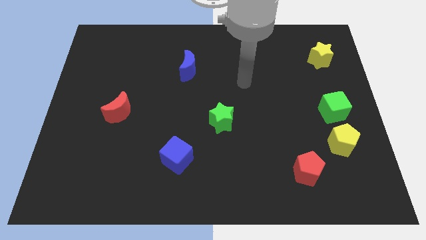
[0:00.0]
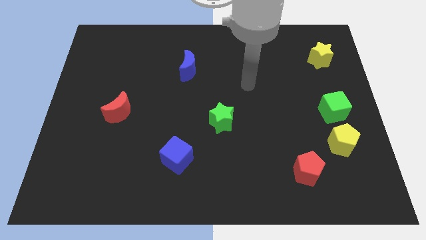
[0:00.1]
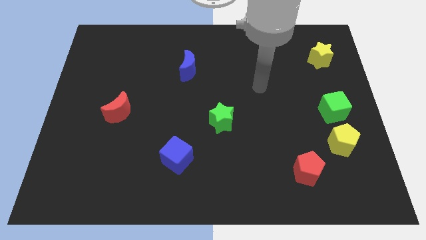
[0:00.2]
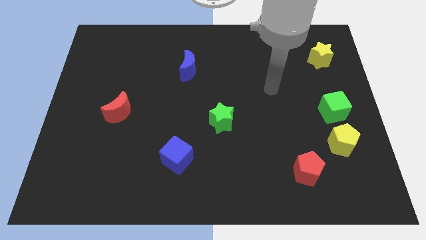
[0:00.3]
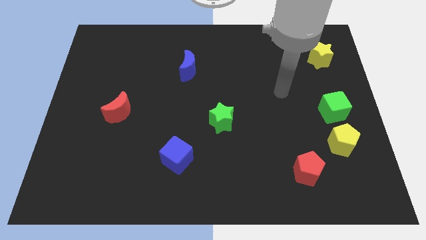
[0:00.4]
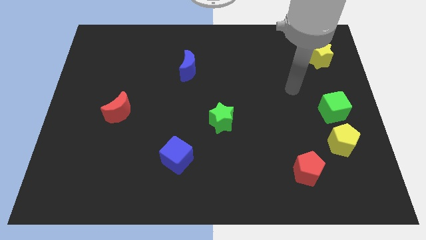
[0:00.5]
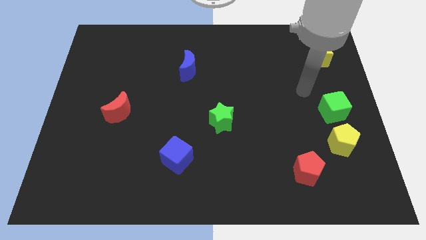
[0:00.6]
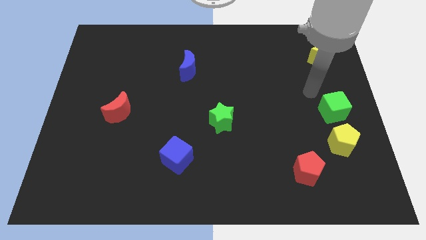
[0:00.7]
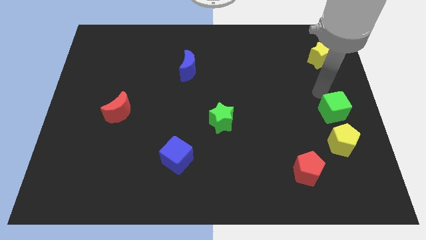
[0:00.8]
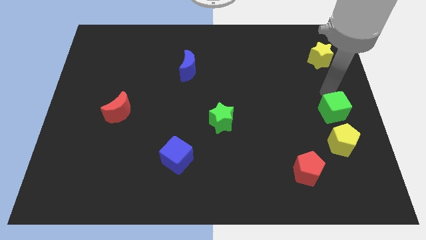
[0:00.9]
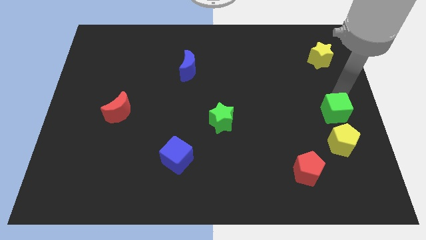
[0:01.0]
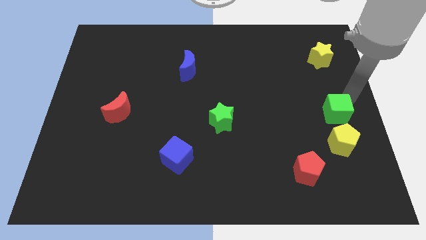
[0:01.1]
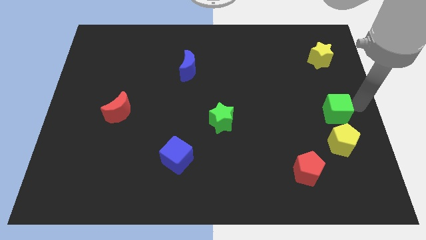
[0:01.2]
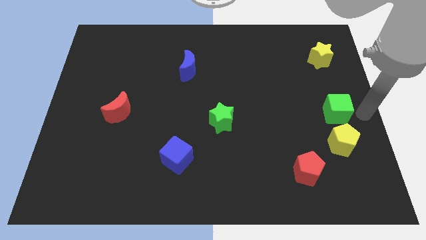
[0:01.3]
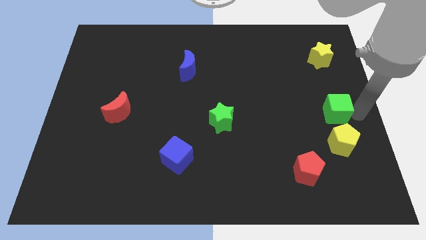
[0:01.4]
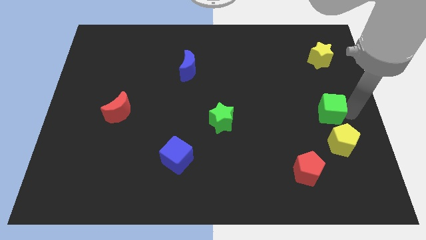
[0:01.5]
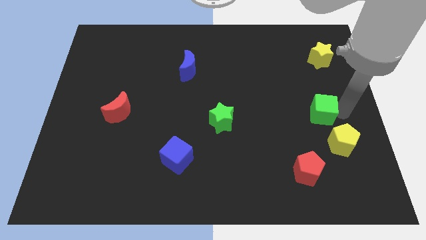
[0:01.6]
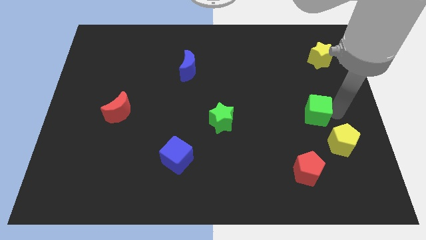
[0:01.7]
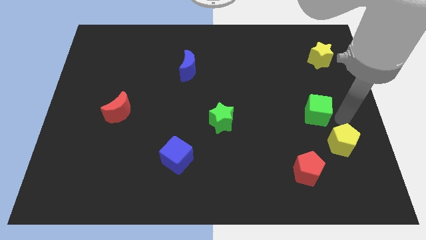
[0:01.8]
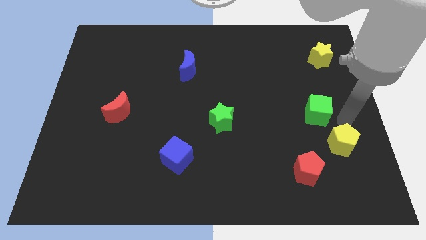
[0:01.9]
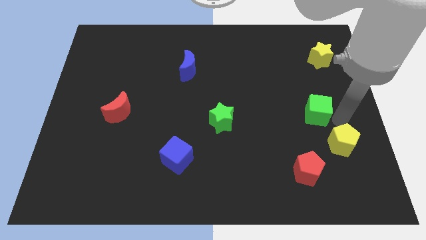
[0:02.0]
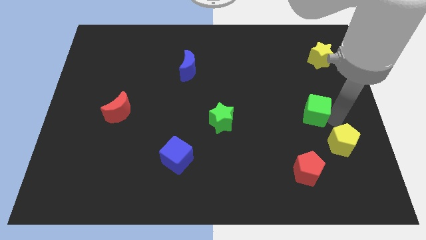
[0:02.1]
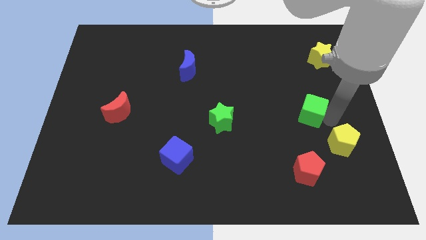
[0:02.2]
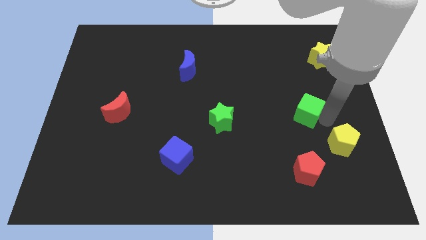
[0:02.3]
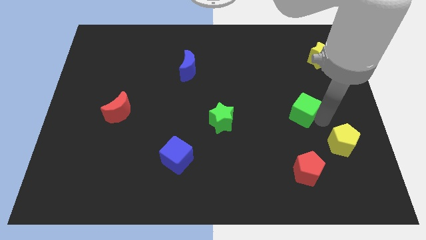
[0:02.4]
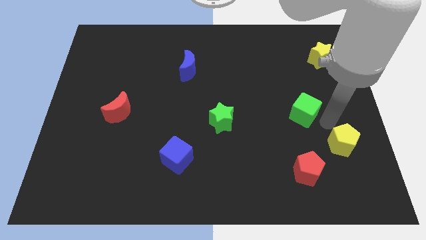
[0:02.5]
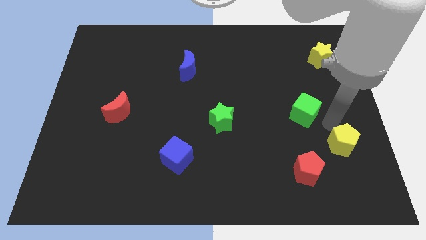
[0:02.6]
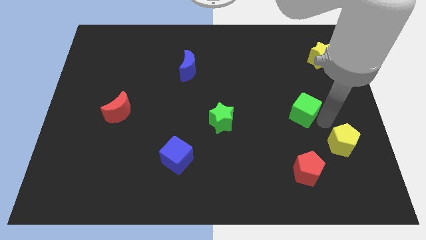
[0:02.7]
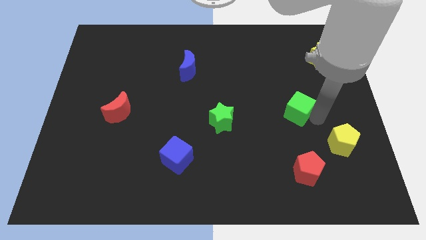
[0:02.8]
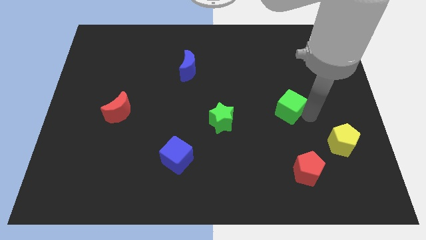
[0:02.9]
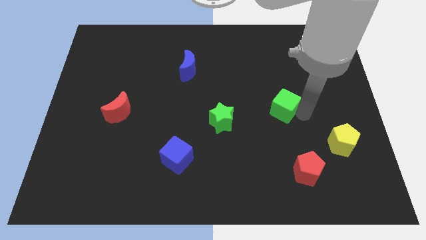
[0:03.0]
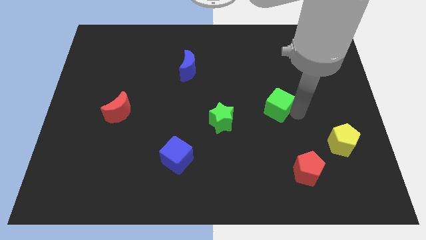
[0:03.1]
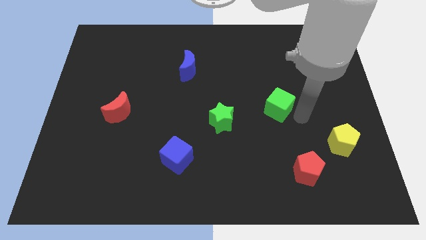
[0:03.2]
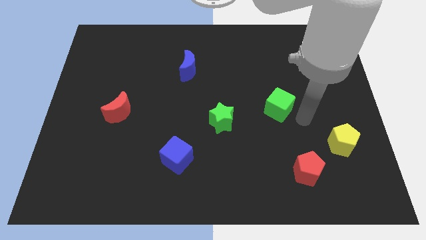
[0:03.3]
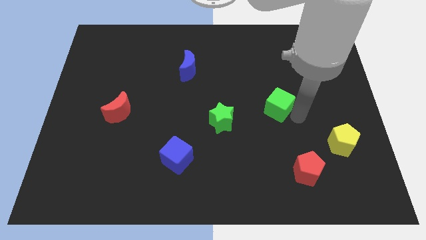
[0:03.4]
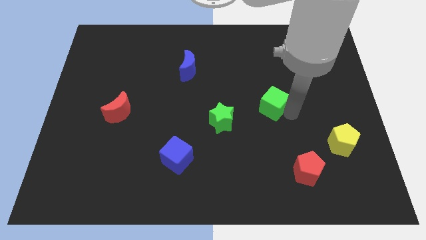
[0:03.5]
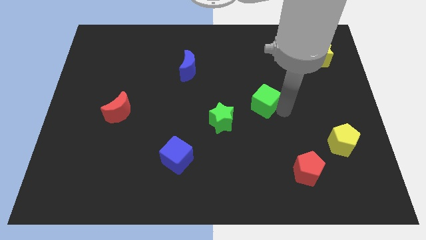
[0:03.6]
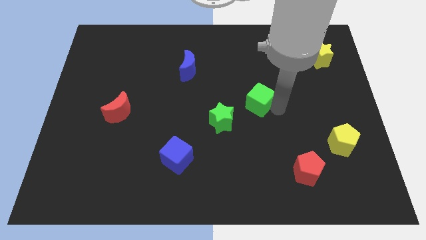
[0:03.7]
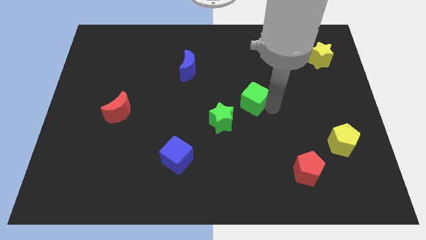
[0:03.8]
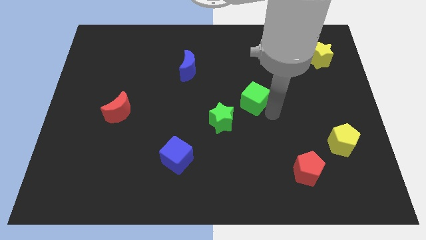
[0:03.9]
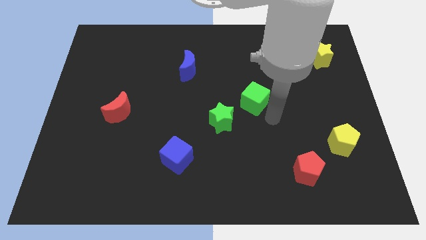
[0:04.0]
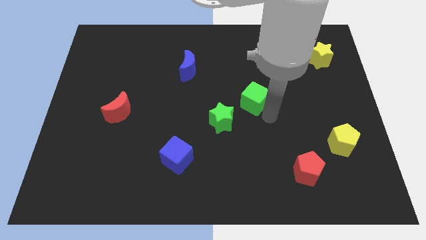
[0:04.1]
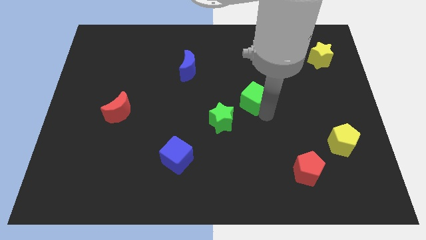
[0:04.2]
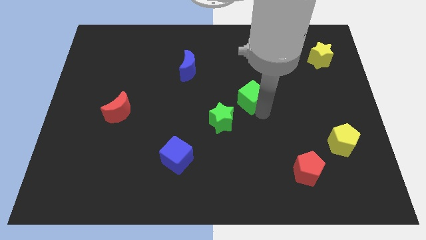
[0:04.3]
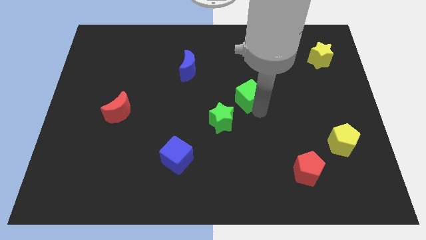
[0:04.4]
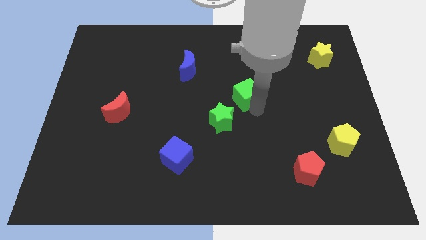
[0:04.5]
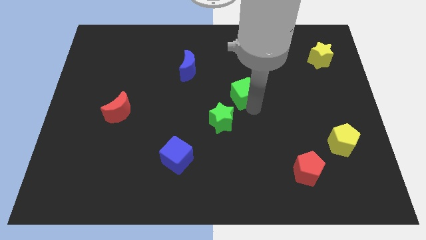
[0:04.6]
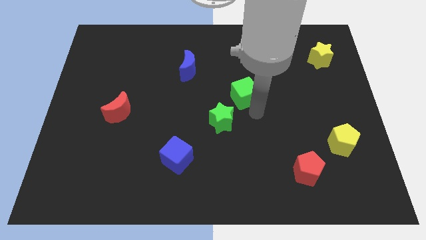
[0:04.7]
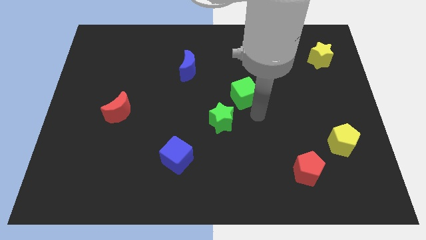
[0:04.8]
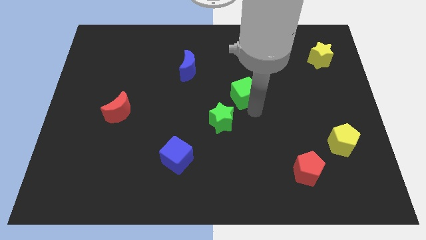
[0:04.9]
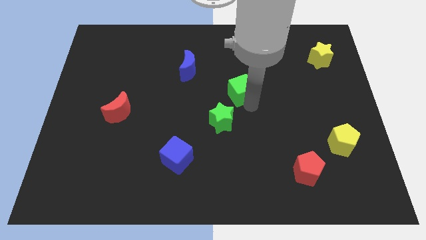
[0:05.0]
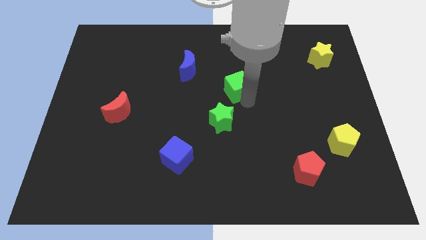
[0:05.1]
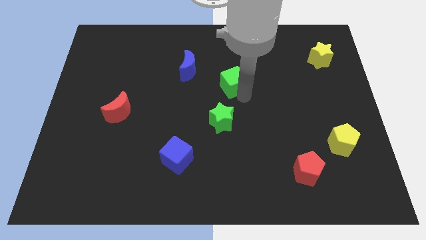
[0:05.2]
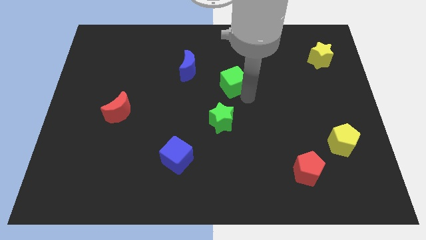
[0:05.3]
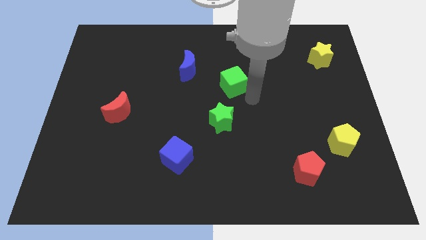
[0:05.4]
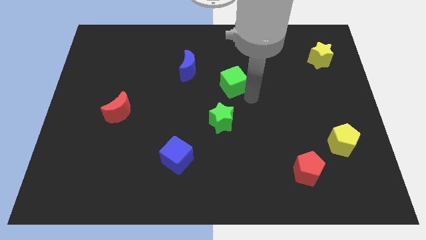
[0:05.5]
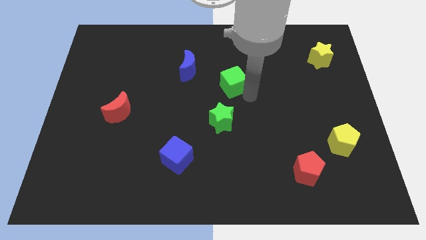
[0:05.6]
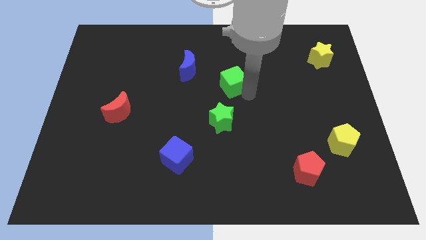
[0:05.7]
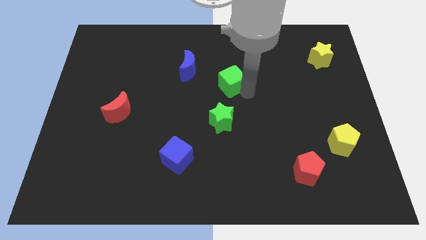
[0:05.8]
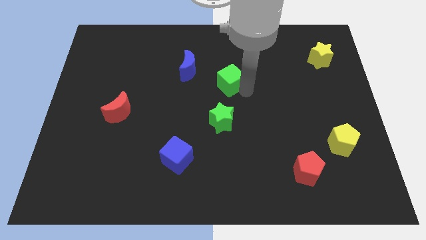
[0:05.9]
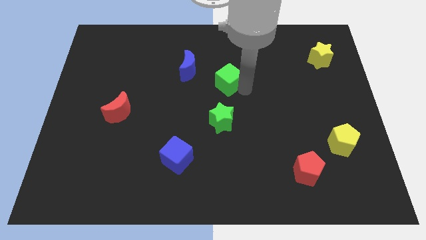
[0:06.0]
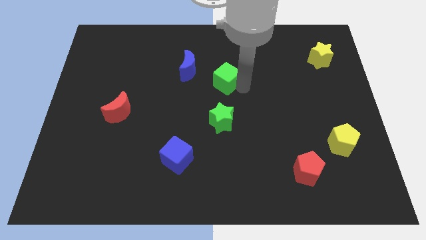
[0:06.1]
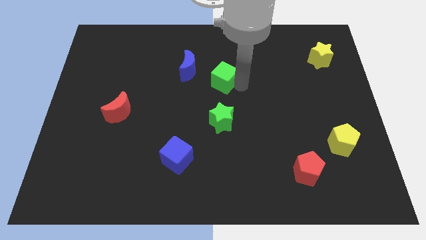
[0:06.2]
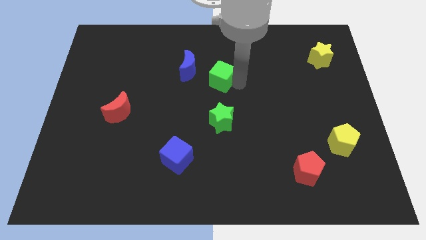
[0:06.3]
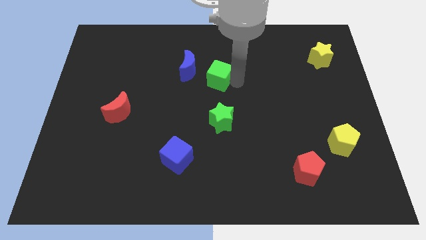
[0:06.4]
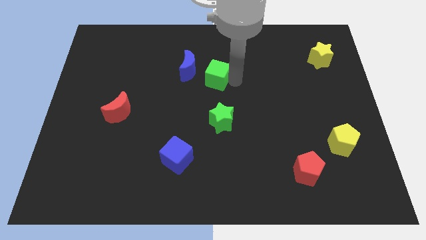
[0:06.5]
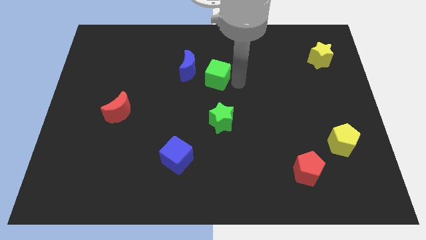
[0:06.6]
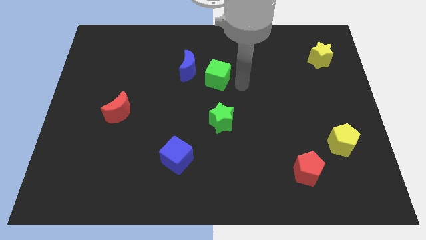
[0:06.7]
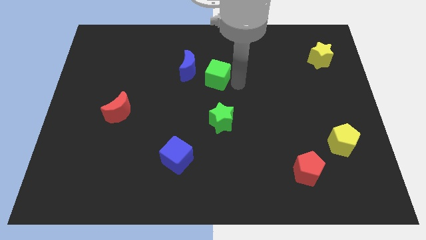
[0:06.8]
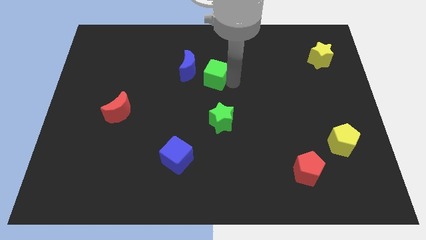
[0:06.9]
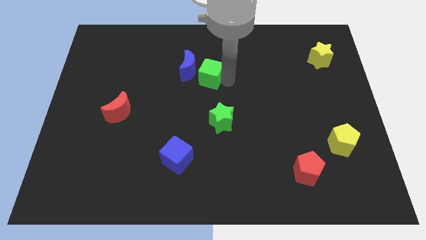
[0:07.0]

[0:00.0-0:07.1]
put the green cube to the blue moon
